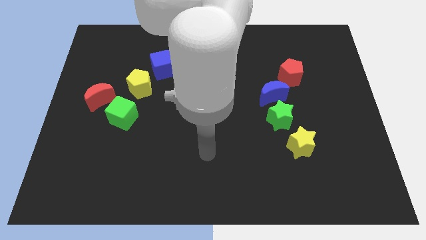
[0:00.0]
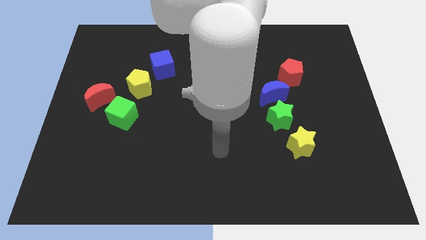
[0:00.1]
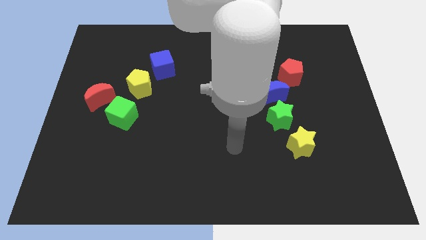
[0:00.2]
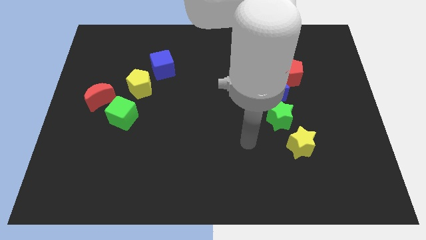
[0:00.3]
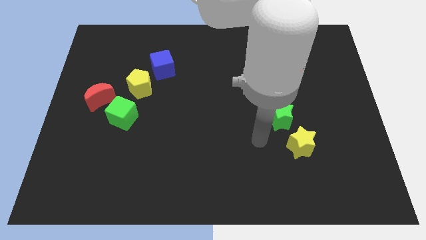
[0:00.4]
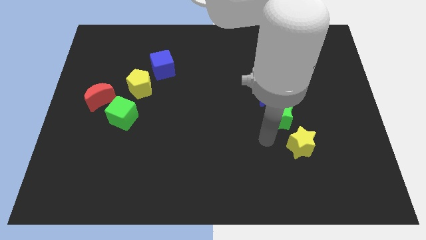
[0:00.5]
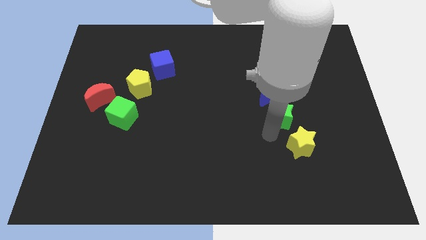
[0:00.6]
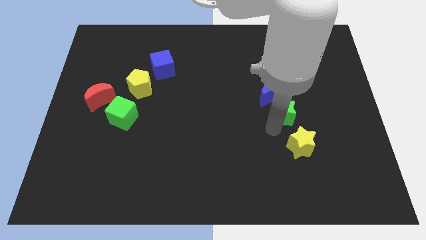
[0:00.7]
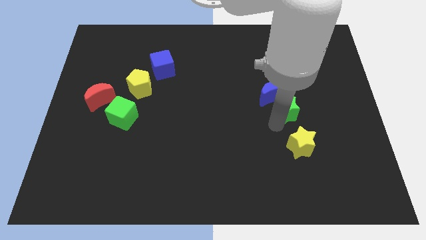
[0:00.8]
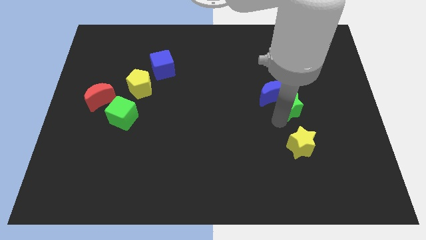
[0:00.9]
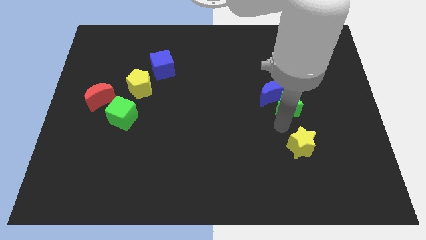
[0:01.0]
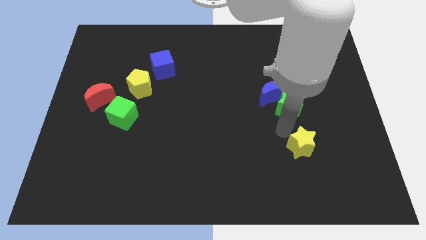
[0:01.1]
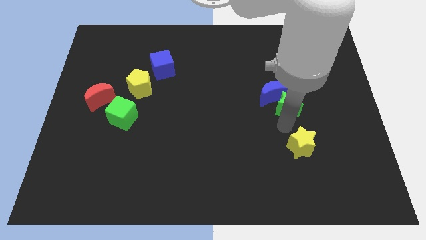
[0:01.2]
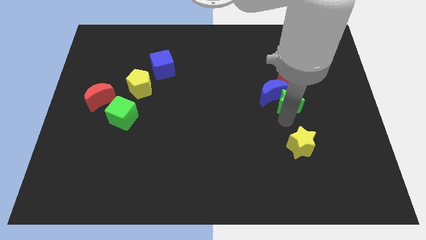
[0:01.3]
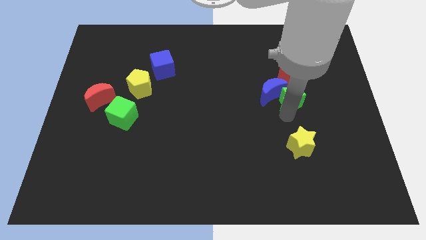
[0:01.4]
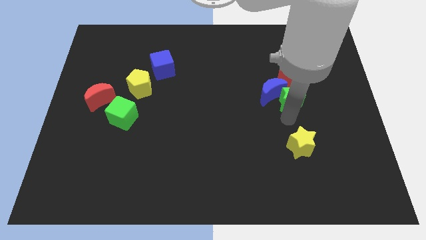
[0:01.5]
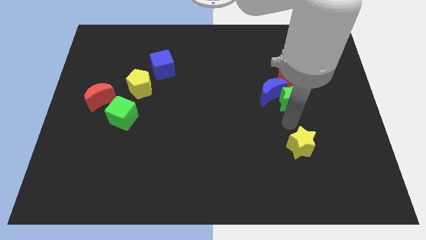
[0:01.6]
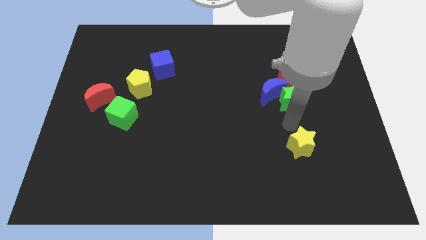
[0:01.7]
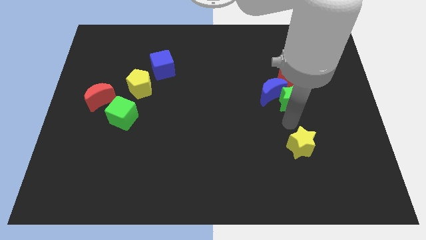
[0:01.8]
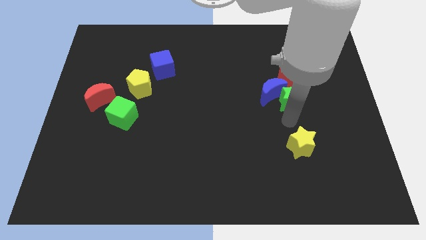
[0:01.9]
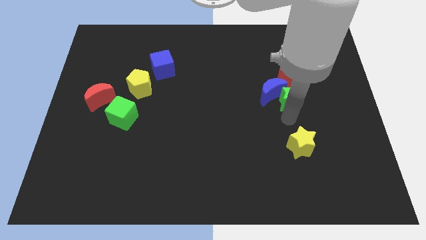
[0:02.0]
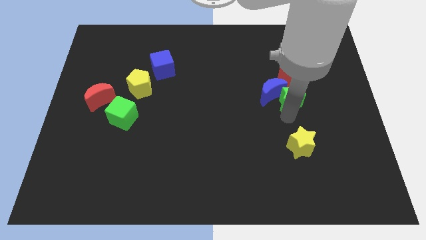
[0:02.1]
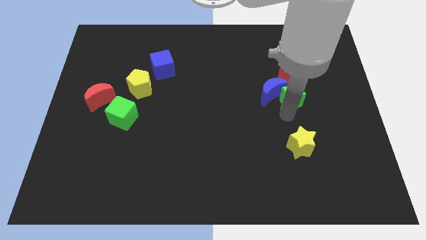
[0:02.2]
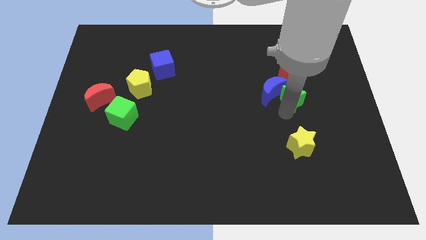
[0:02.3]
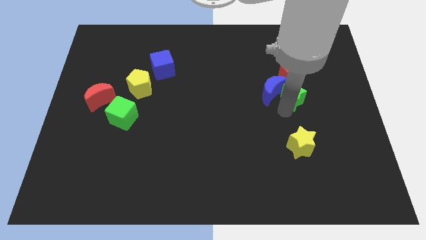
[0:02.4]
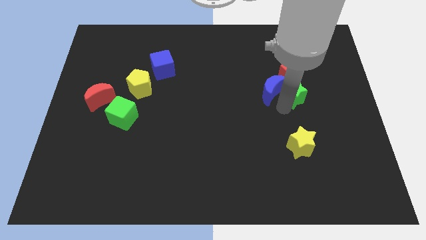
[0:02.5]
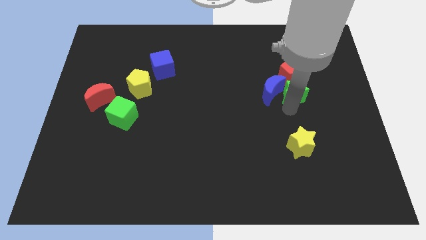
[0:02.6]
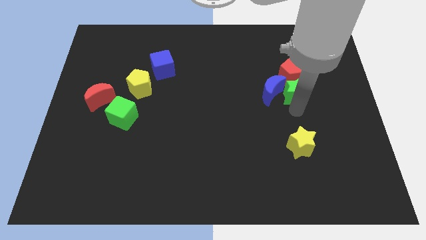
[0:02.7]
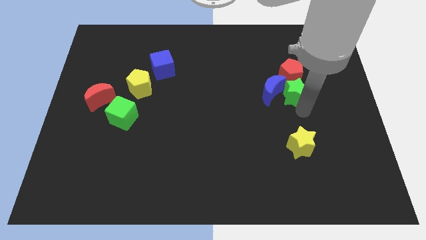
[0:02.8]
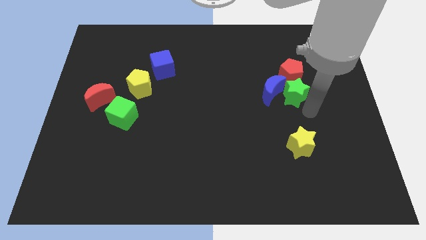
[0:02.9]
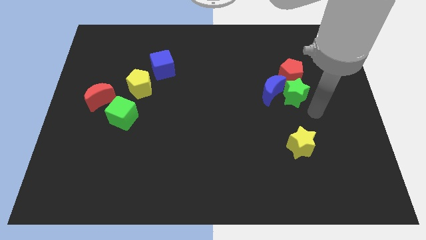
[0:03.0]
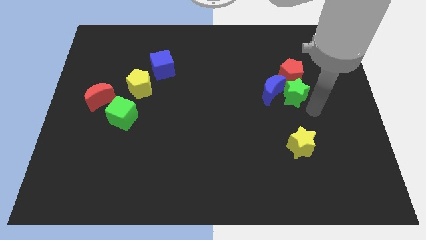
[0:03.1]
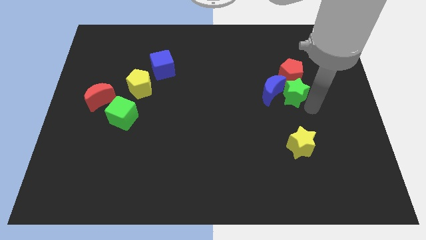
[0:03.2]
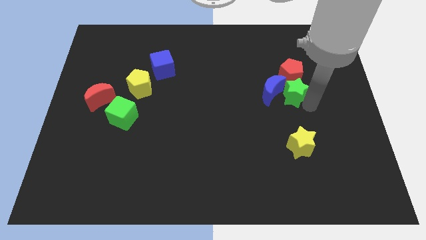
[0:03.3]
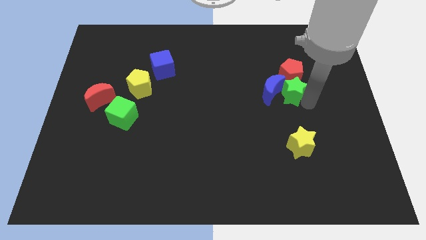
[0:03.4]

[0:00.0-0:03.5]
slightly move the green star up

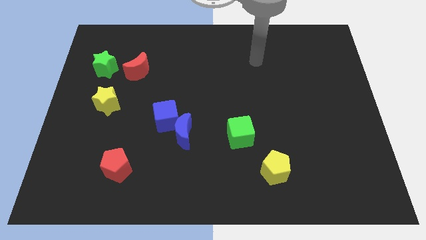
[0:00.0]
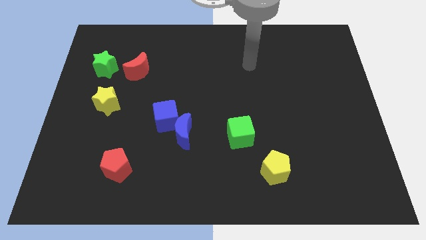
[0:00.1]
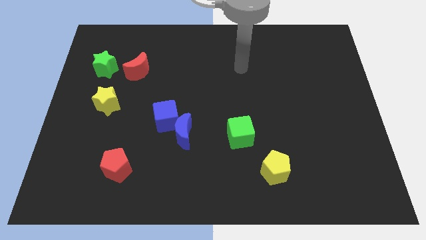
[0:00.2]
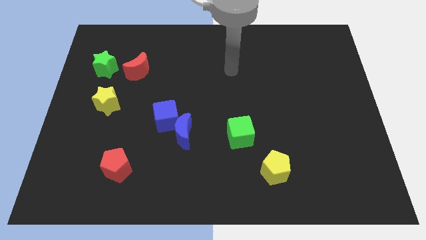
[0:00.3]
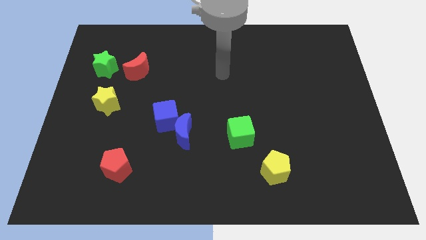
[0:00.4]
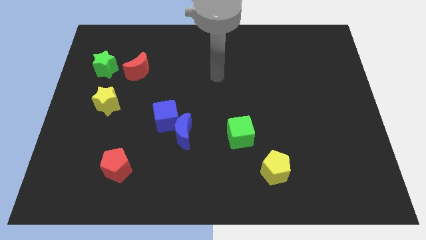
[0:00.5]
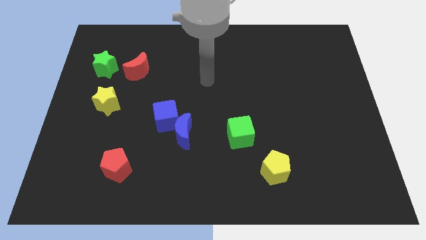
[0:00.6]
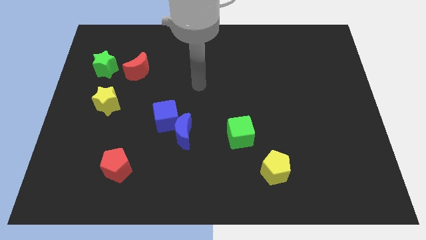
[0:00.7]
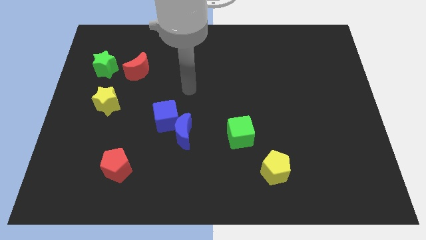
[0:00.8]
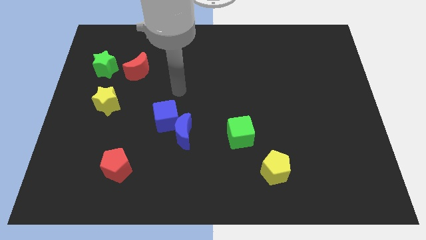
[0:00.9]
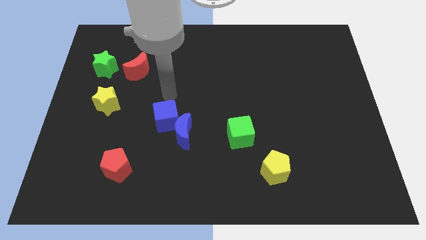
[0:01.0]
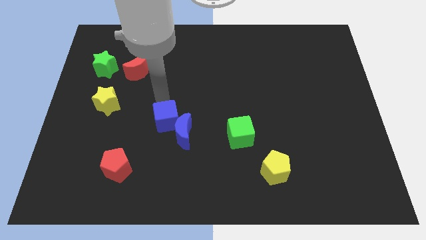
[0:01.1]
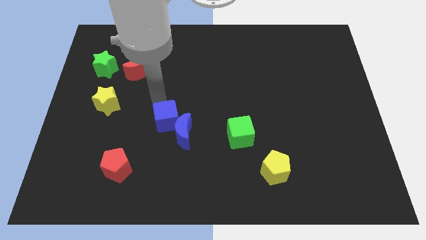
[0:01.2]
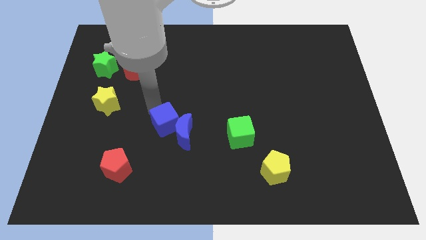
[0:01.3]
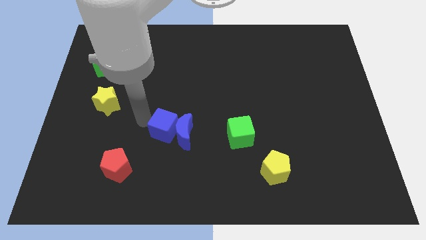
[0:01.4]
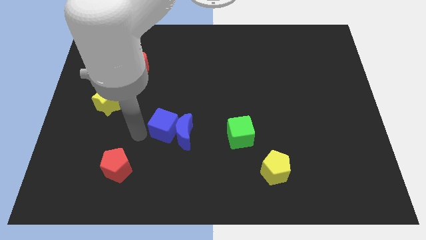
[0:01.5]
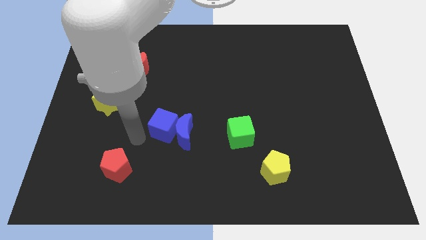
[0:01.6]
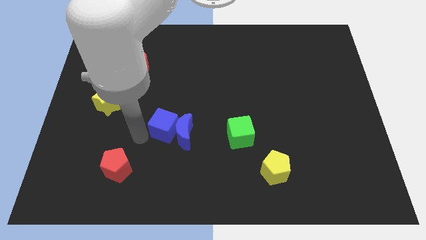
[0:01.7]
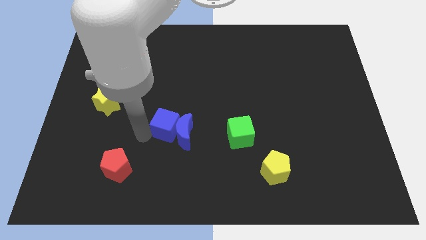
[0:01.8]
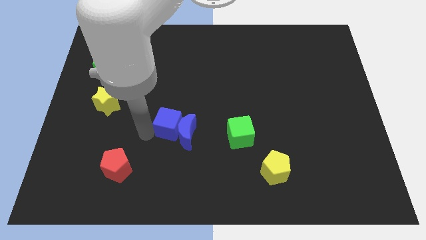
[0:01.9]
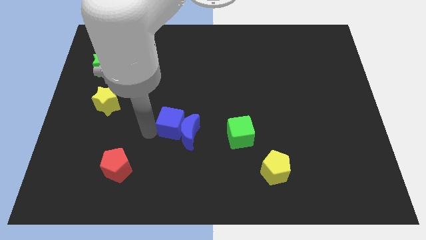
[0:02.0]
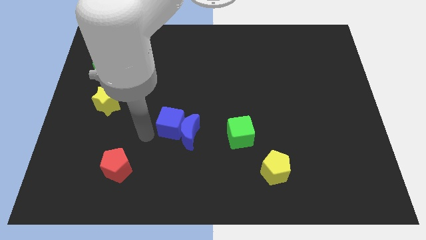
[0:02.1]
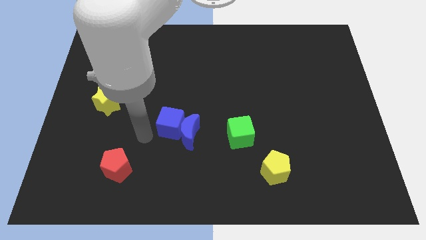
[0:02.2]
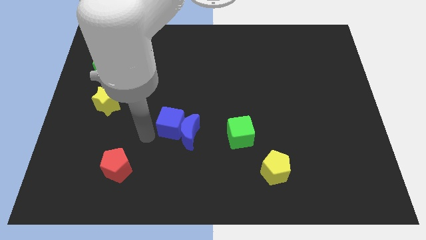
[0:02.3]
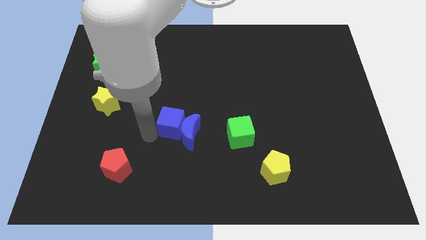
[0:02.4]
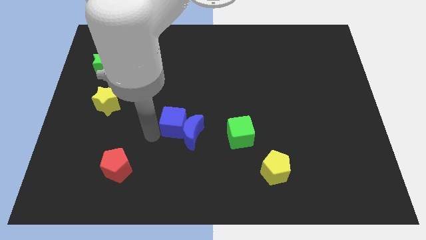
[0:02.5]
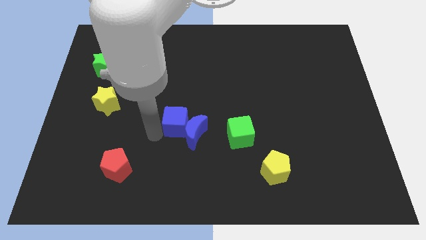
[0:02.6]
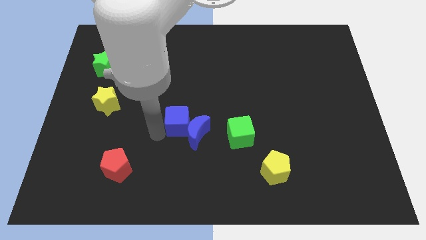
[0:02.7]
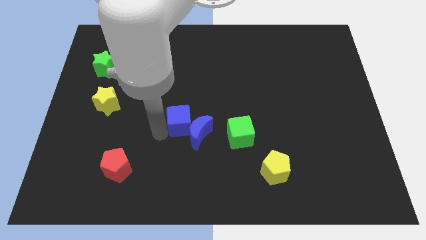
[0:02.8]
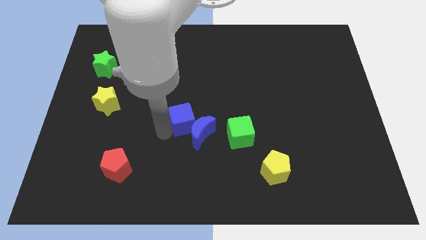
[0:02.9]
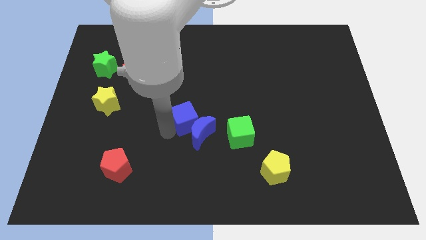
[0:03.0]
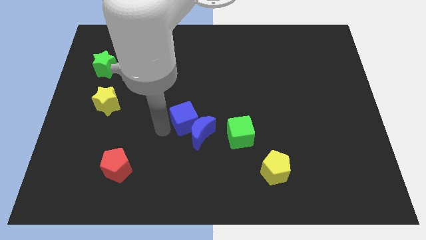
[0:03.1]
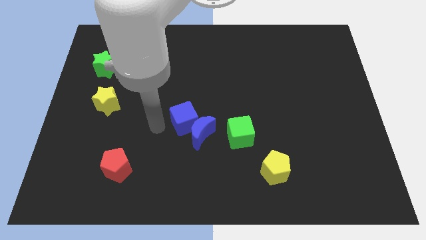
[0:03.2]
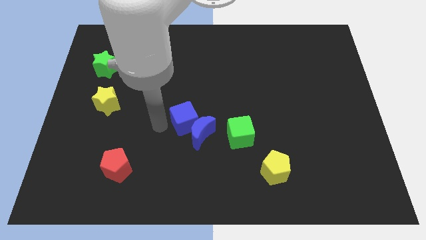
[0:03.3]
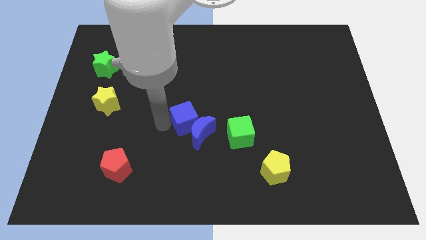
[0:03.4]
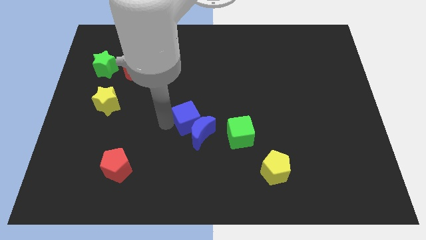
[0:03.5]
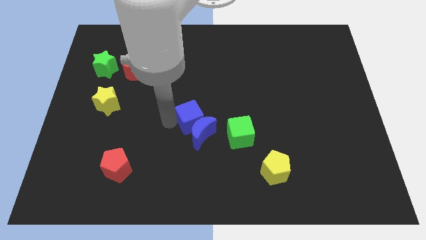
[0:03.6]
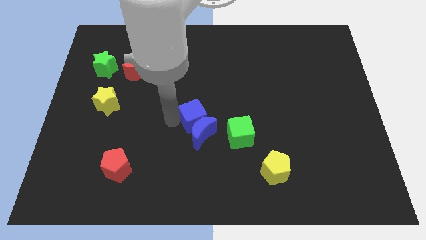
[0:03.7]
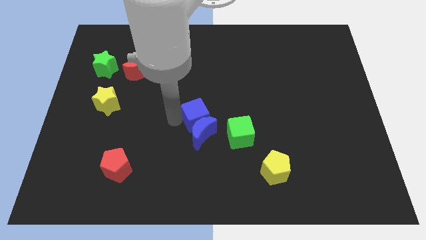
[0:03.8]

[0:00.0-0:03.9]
slide the blue cube to the right a little bit

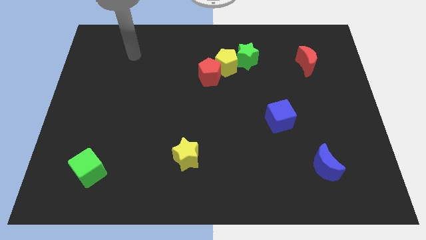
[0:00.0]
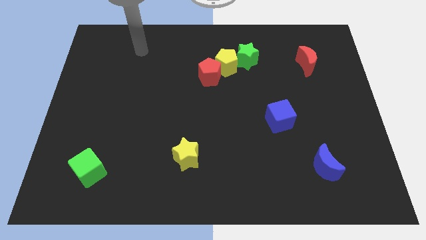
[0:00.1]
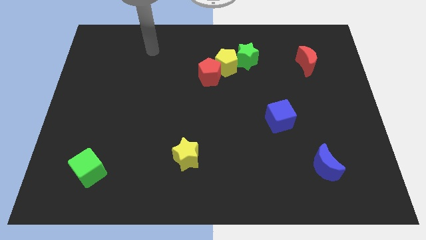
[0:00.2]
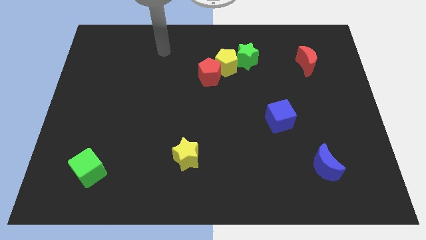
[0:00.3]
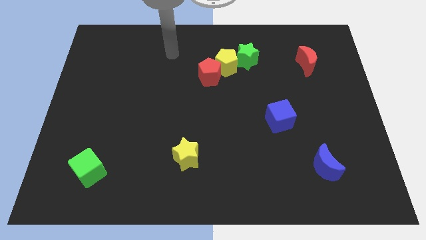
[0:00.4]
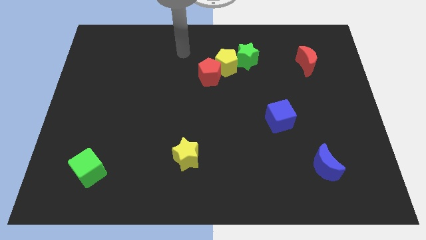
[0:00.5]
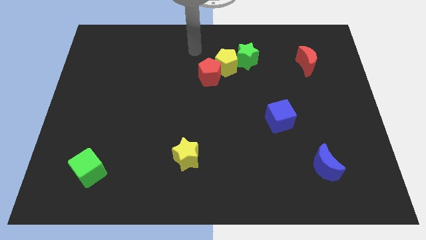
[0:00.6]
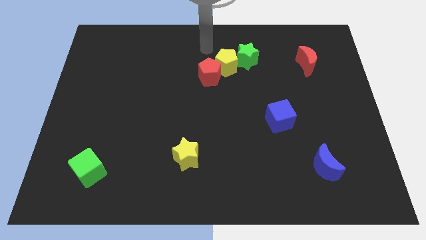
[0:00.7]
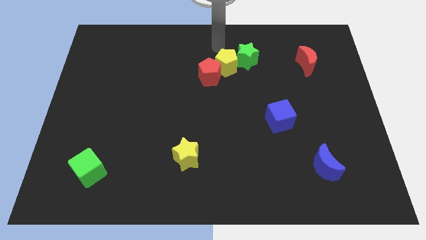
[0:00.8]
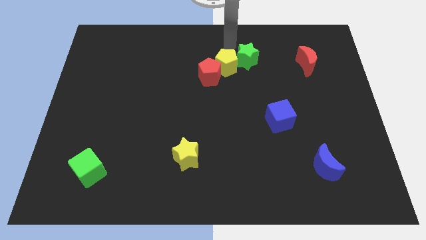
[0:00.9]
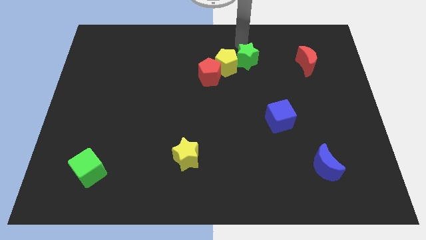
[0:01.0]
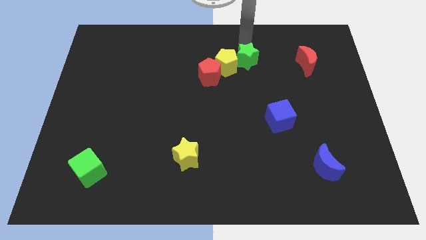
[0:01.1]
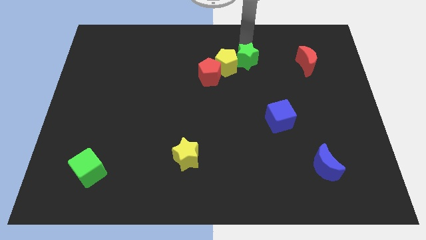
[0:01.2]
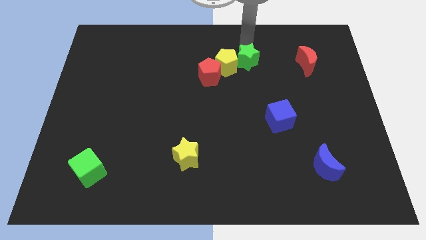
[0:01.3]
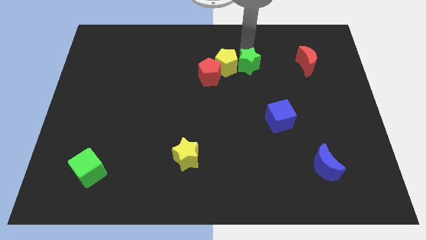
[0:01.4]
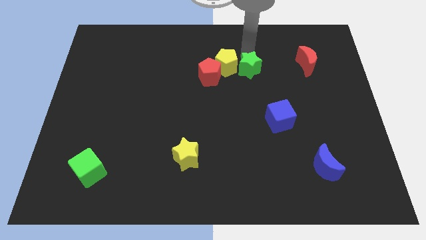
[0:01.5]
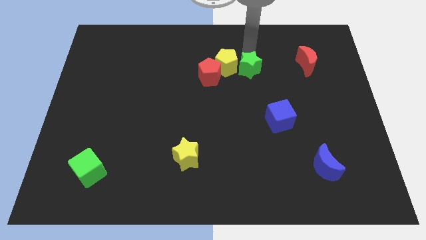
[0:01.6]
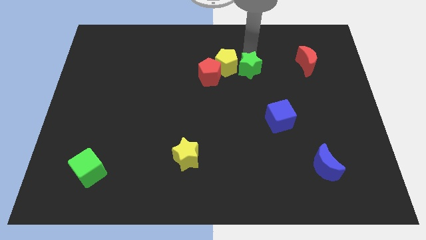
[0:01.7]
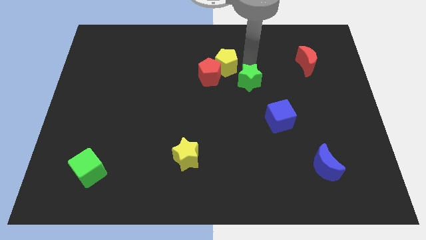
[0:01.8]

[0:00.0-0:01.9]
push the green star down a little
